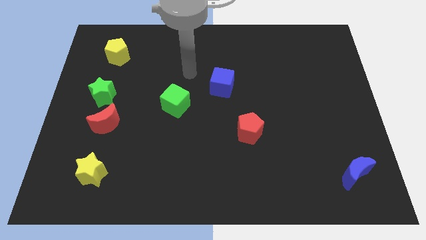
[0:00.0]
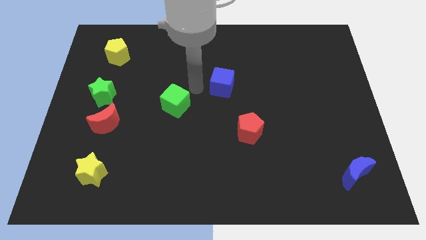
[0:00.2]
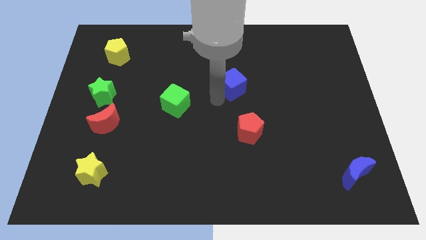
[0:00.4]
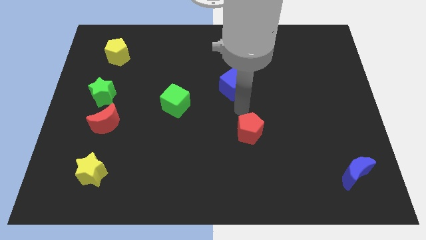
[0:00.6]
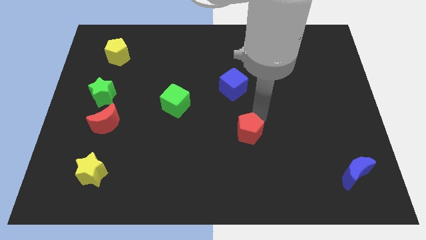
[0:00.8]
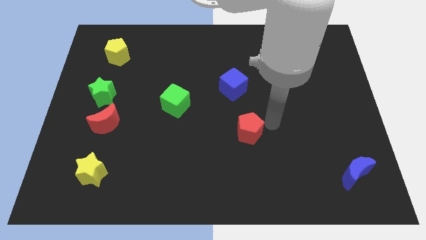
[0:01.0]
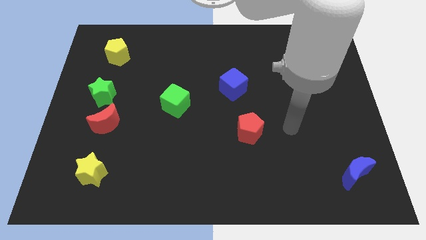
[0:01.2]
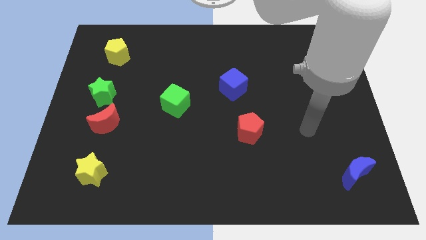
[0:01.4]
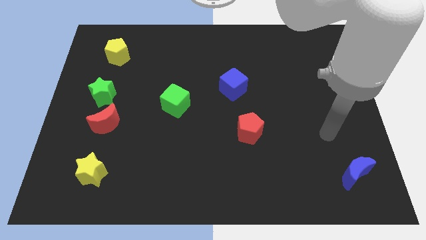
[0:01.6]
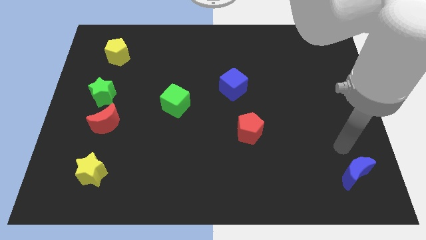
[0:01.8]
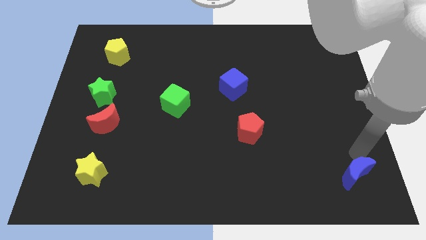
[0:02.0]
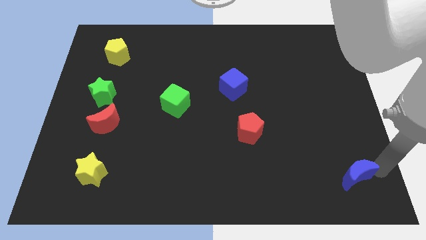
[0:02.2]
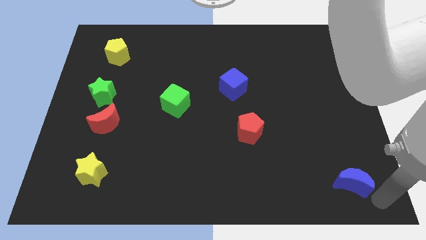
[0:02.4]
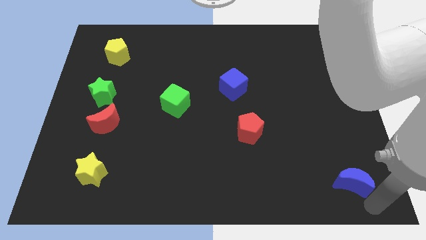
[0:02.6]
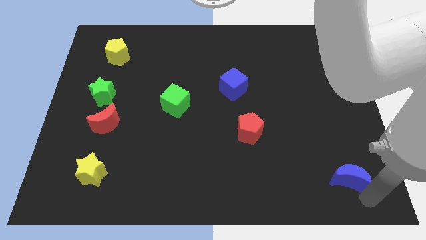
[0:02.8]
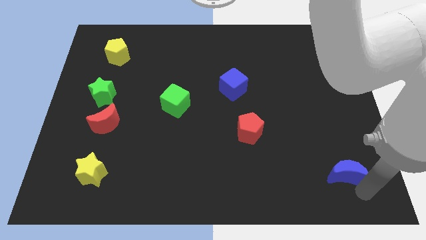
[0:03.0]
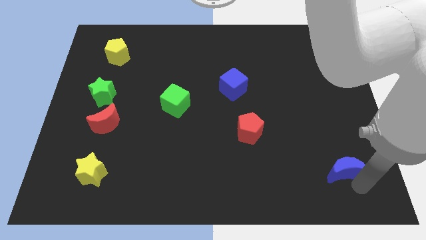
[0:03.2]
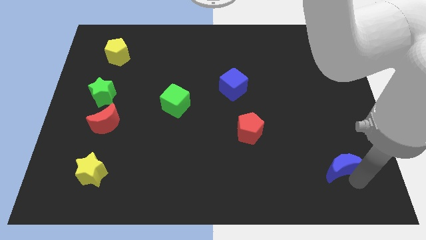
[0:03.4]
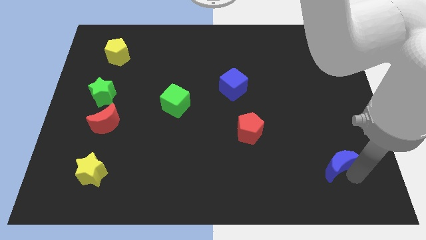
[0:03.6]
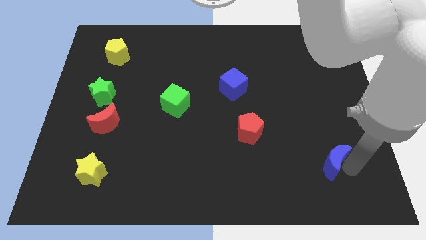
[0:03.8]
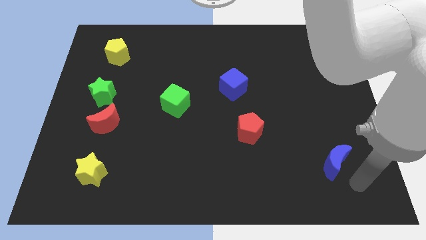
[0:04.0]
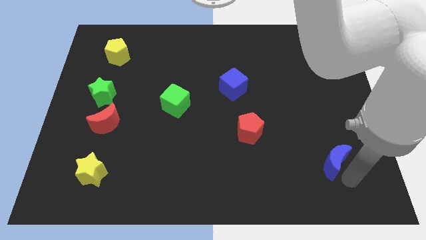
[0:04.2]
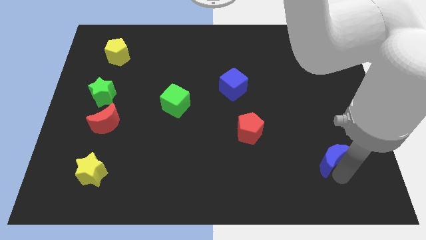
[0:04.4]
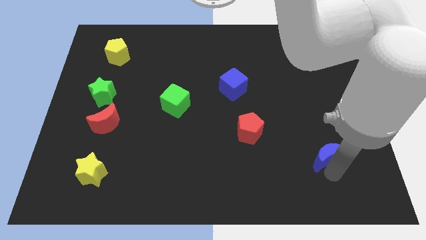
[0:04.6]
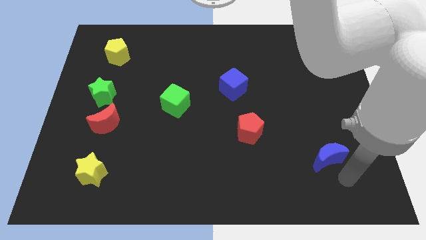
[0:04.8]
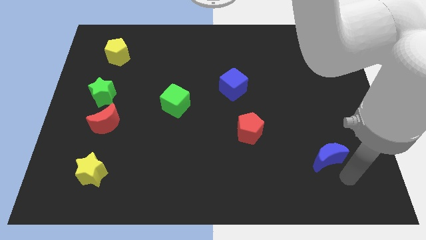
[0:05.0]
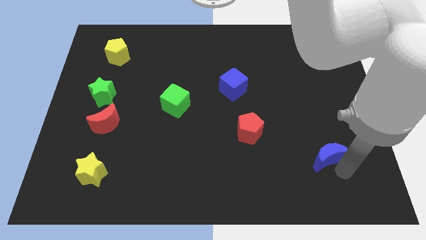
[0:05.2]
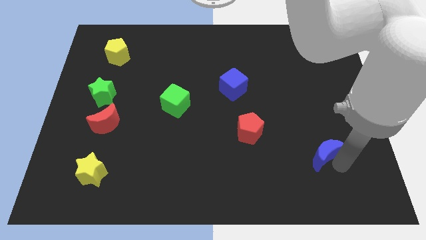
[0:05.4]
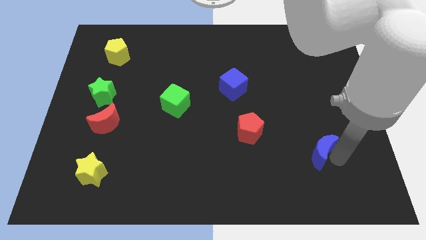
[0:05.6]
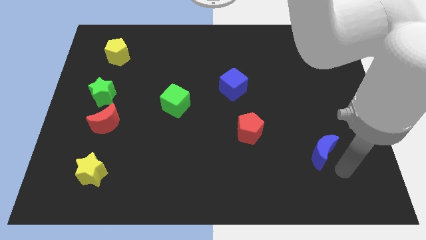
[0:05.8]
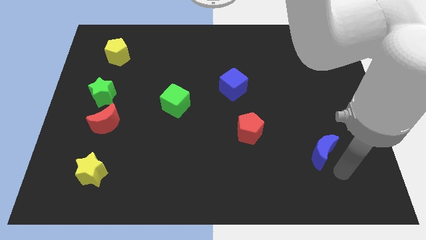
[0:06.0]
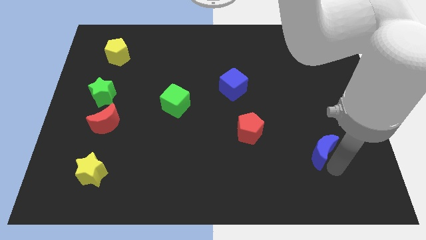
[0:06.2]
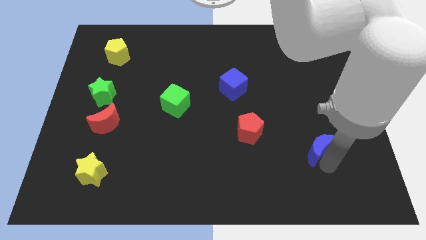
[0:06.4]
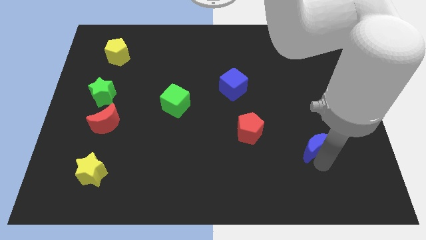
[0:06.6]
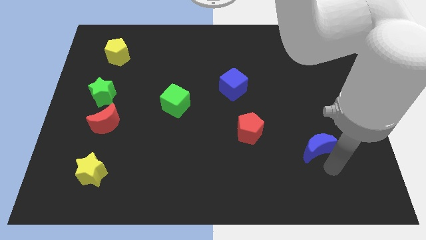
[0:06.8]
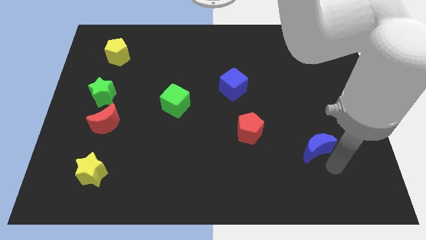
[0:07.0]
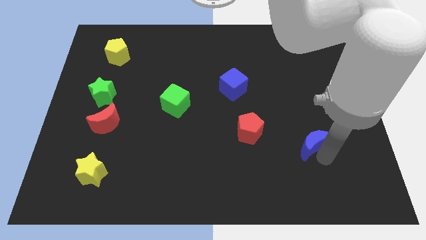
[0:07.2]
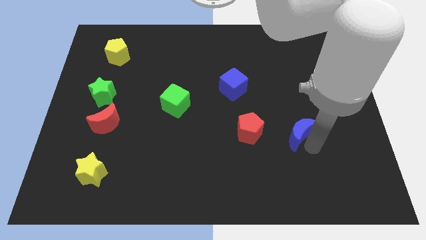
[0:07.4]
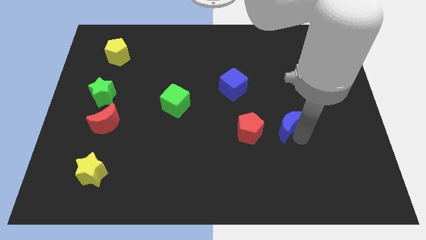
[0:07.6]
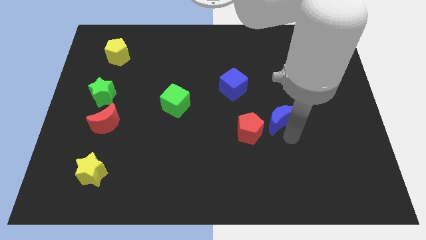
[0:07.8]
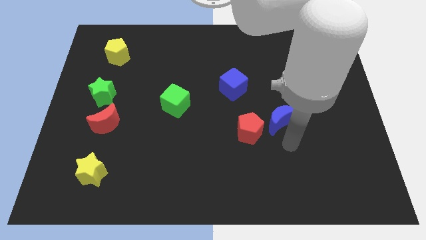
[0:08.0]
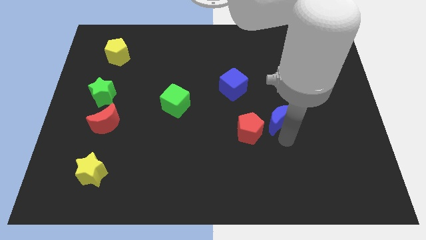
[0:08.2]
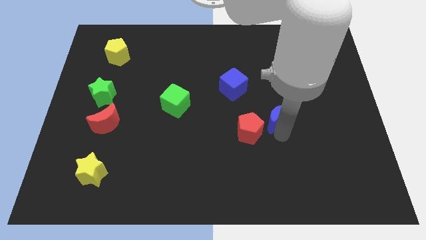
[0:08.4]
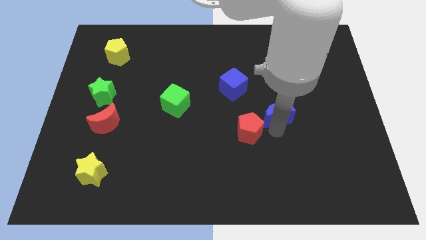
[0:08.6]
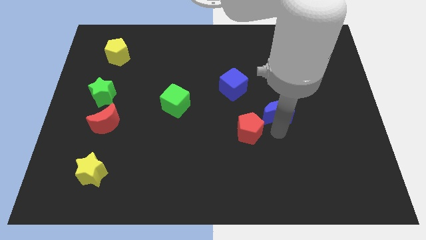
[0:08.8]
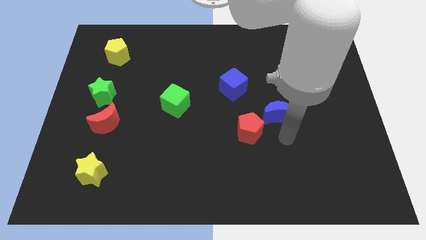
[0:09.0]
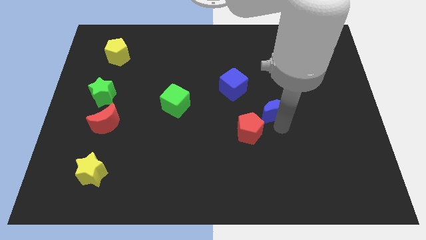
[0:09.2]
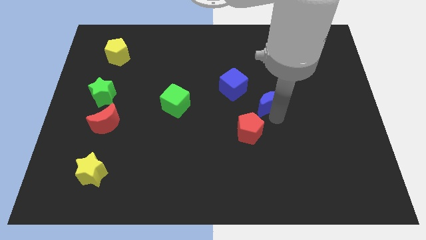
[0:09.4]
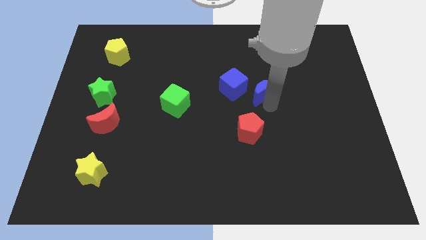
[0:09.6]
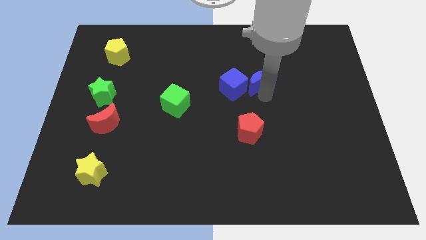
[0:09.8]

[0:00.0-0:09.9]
move the blue moon to the top right of the blue cube

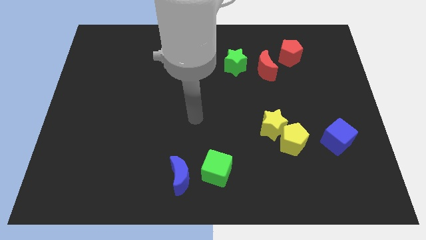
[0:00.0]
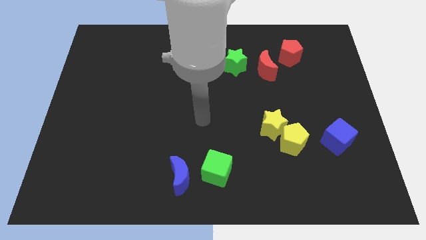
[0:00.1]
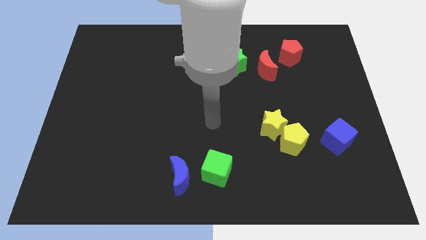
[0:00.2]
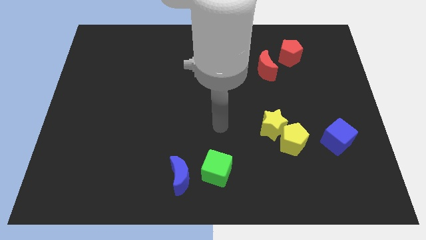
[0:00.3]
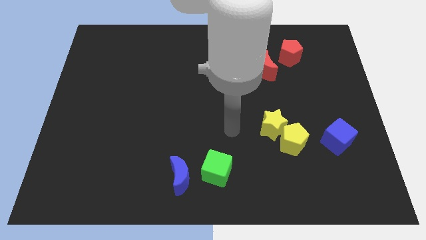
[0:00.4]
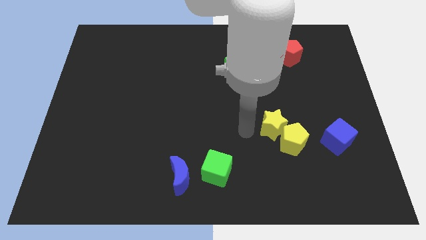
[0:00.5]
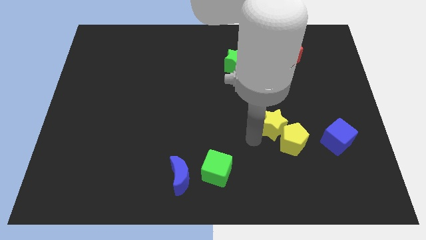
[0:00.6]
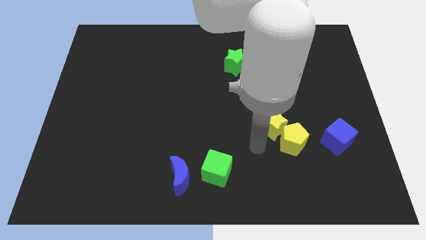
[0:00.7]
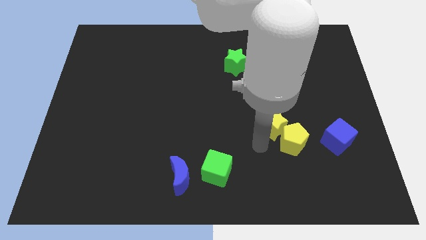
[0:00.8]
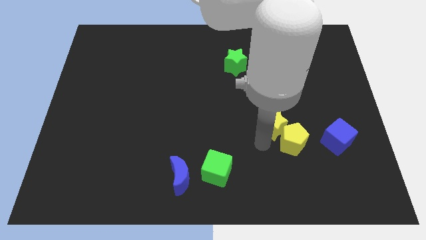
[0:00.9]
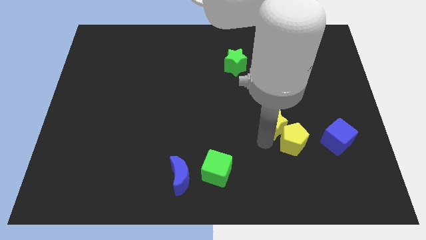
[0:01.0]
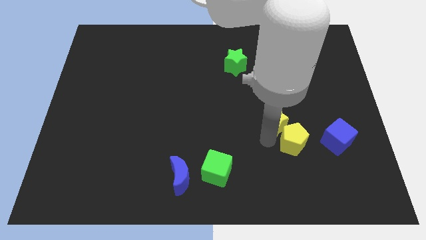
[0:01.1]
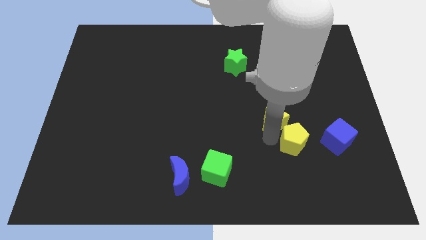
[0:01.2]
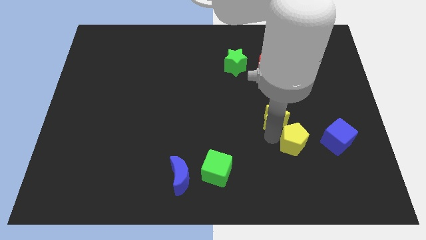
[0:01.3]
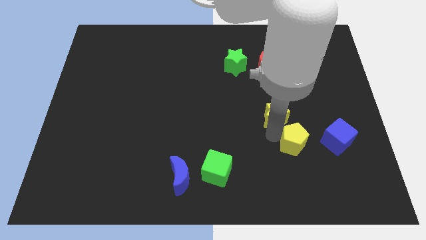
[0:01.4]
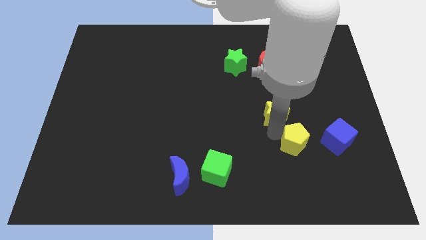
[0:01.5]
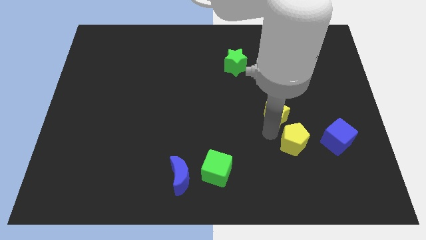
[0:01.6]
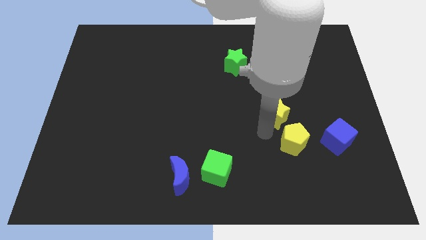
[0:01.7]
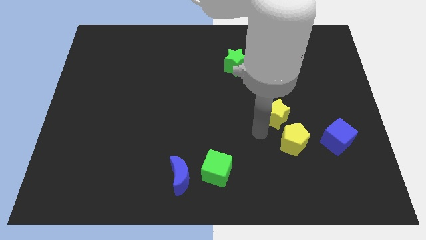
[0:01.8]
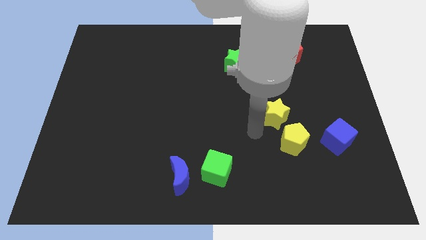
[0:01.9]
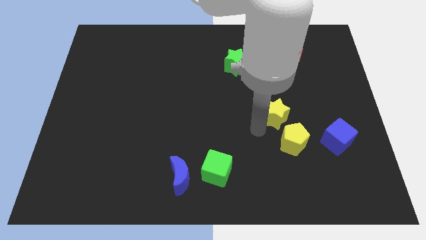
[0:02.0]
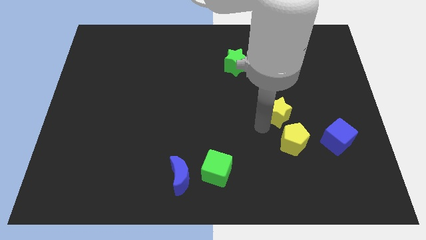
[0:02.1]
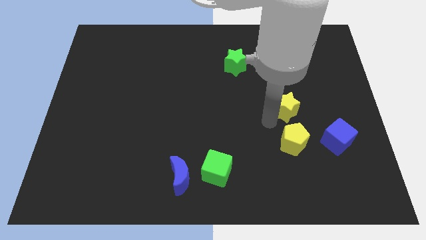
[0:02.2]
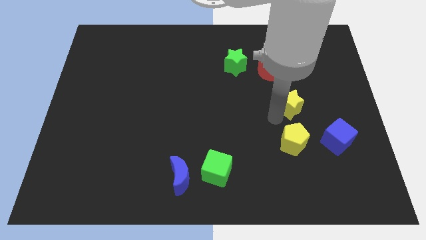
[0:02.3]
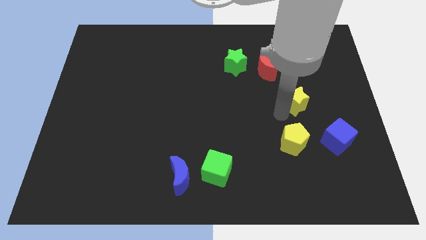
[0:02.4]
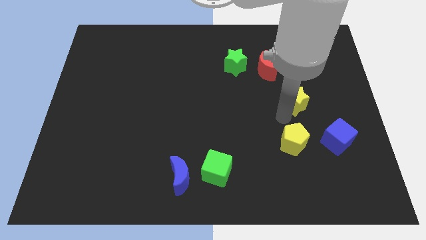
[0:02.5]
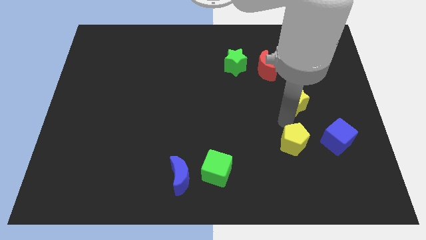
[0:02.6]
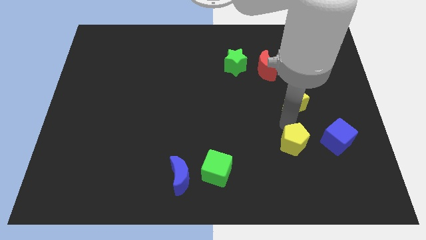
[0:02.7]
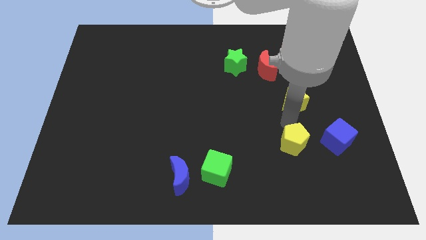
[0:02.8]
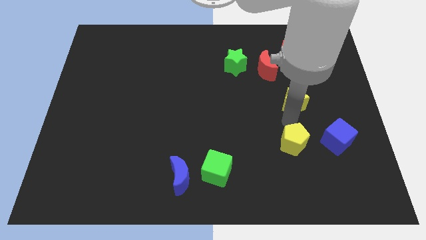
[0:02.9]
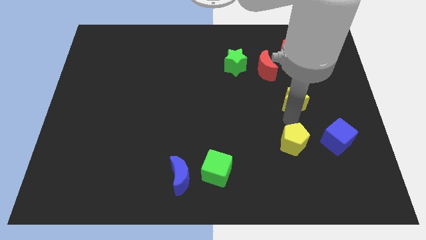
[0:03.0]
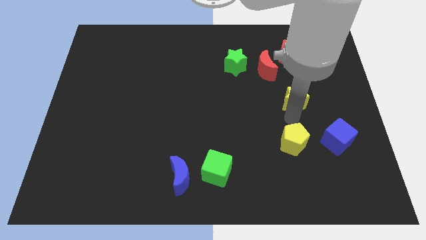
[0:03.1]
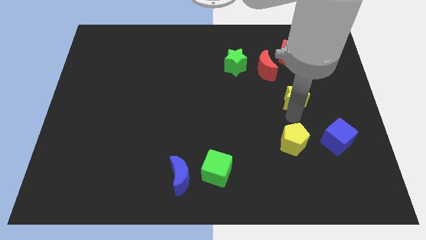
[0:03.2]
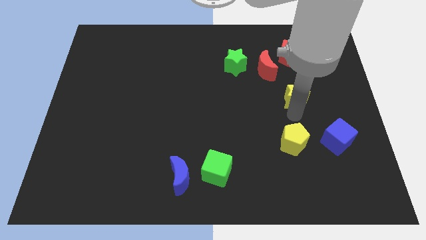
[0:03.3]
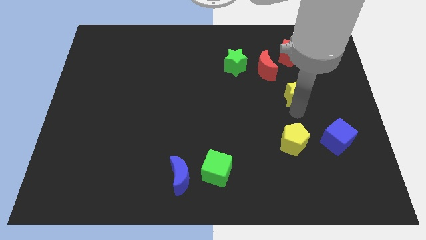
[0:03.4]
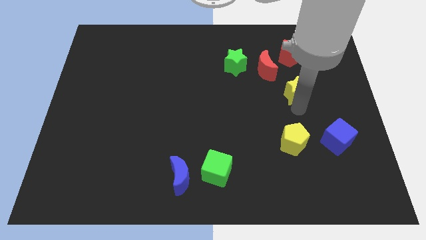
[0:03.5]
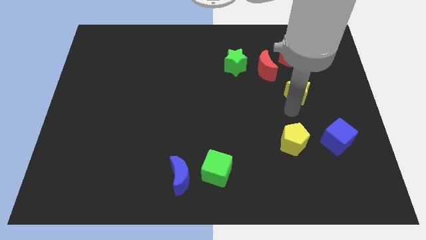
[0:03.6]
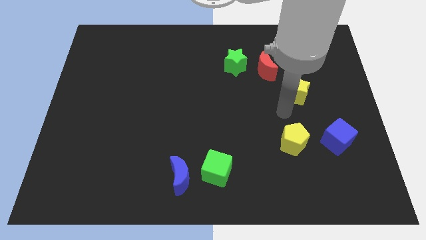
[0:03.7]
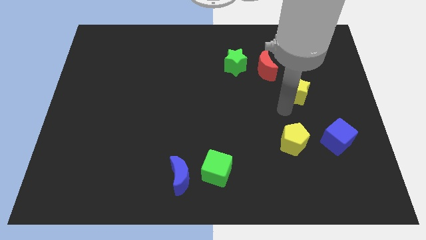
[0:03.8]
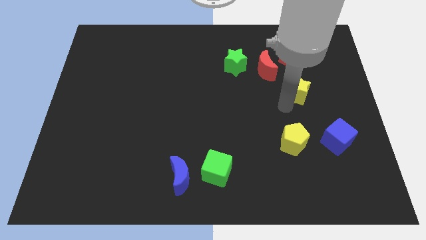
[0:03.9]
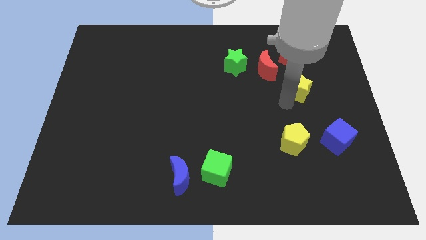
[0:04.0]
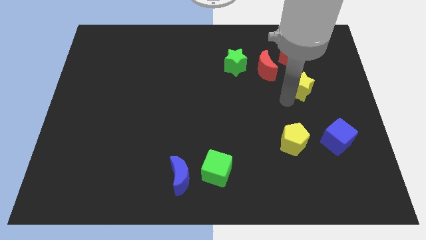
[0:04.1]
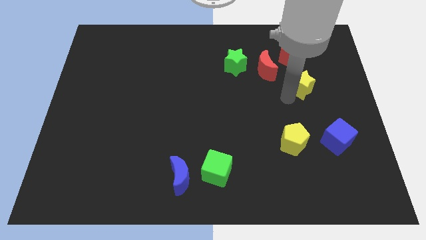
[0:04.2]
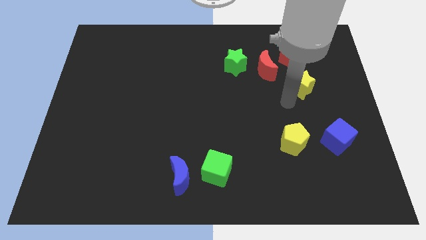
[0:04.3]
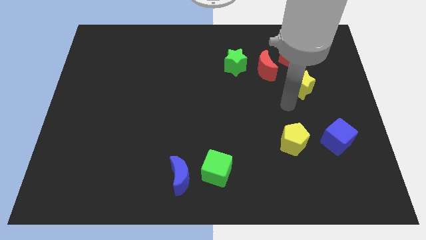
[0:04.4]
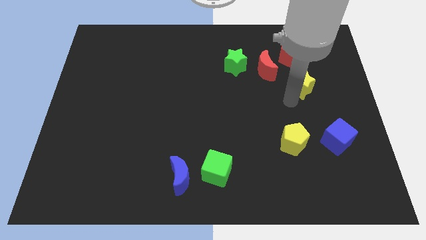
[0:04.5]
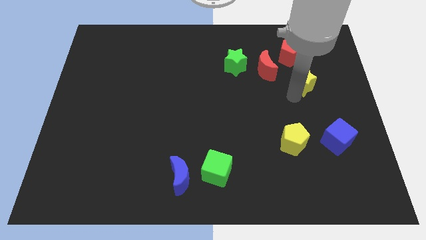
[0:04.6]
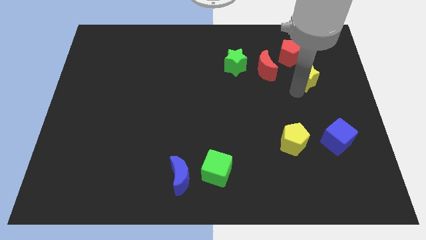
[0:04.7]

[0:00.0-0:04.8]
push the yellow star to the bottom right side of the red pentagon
